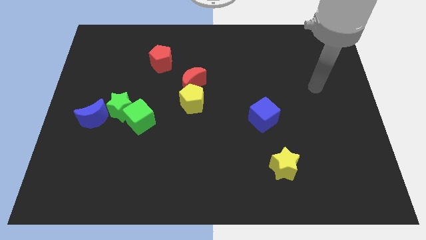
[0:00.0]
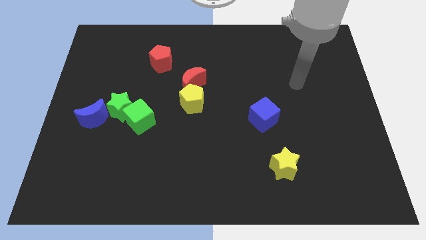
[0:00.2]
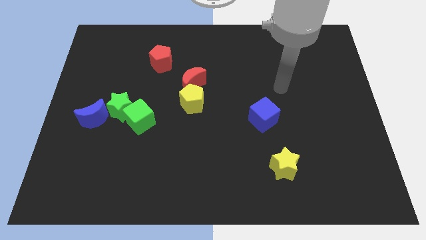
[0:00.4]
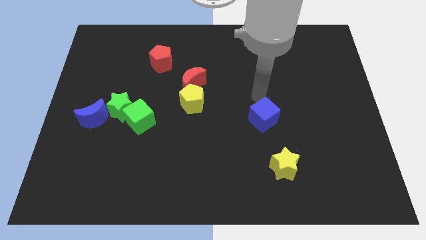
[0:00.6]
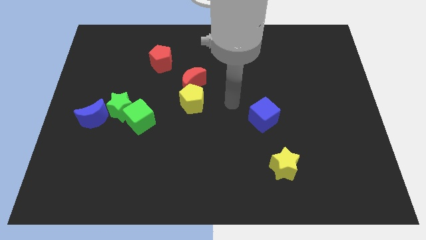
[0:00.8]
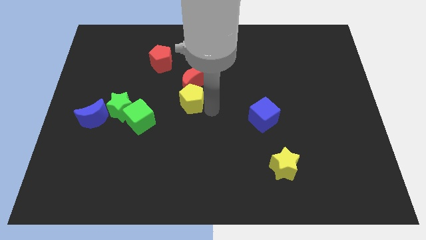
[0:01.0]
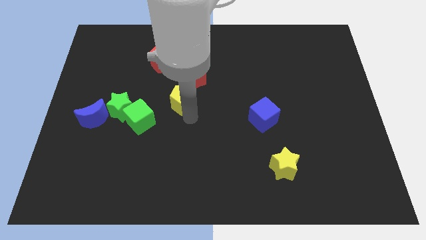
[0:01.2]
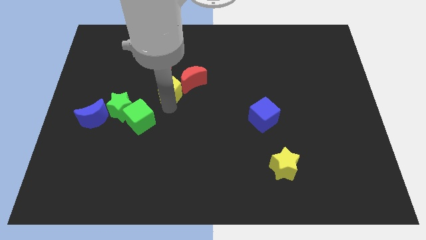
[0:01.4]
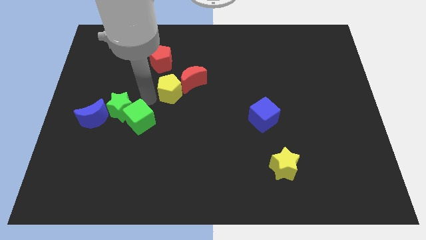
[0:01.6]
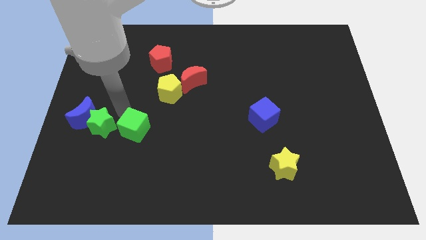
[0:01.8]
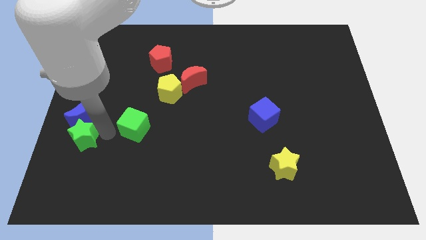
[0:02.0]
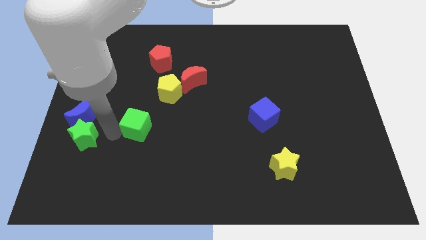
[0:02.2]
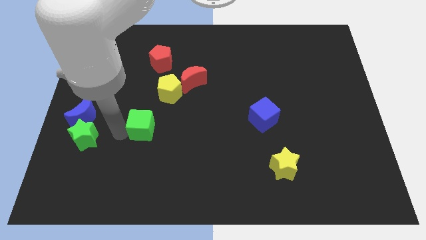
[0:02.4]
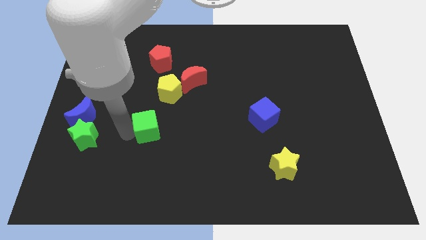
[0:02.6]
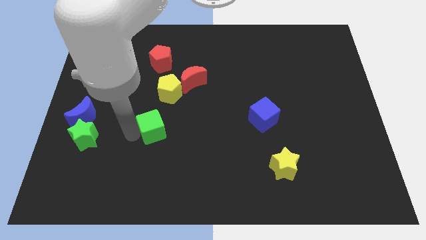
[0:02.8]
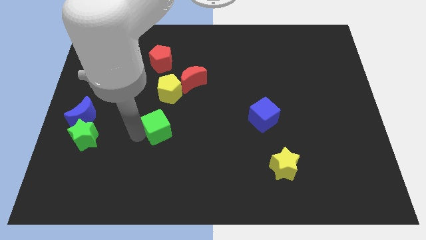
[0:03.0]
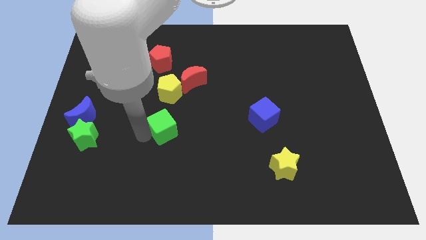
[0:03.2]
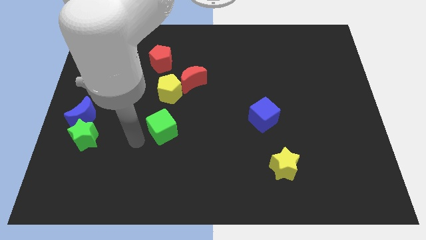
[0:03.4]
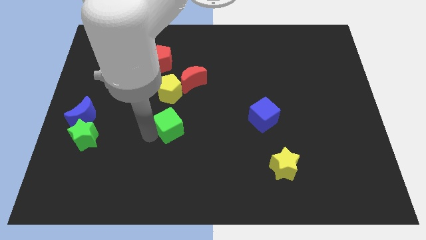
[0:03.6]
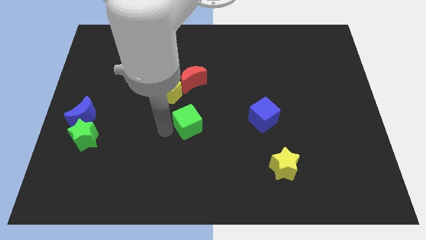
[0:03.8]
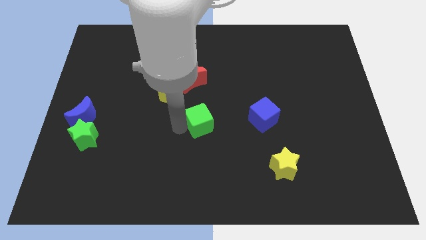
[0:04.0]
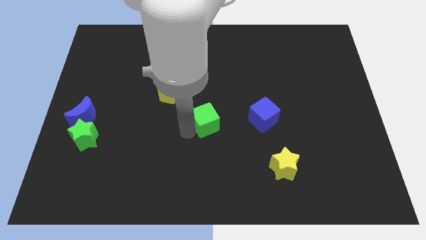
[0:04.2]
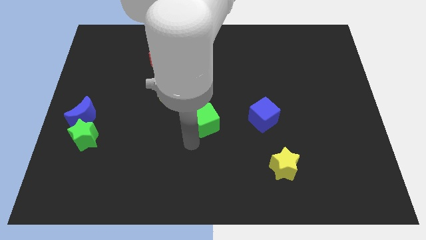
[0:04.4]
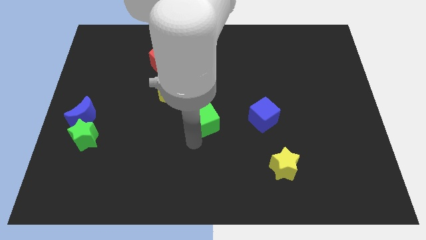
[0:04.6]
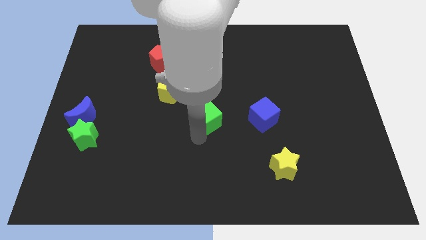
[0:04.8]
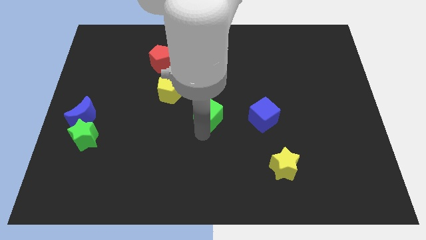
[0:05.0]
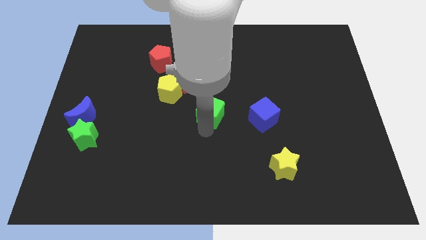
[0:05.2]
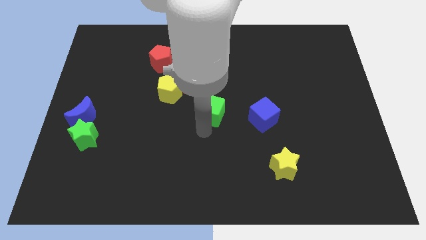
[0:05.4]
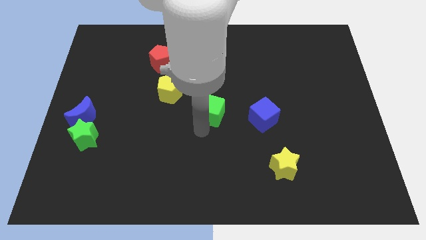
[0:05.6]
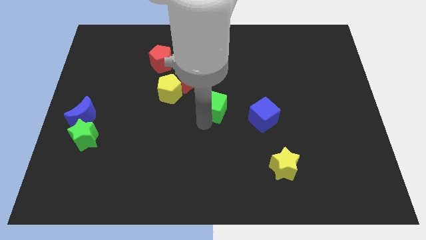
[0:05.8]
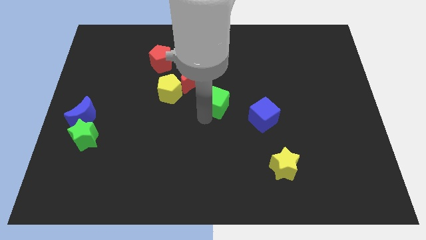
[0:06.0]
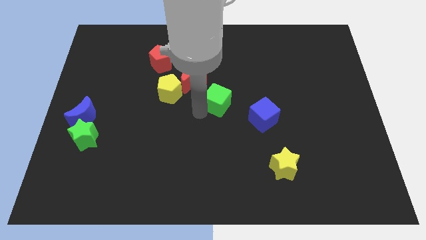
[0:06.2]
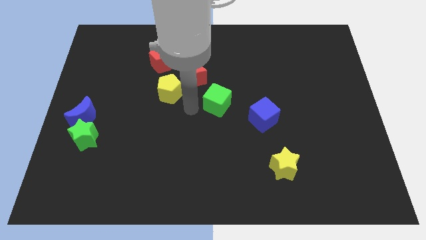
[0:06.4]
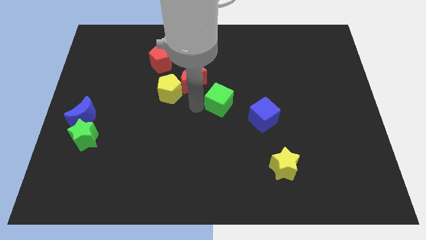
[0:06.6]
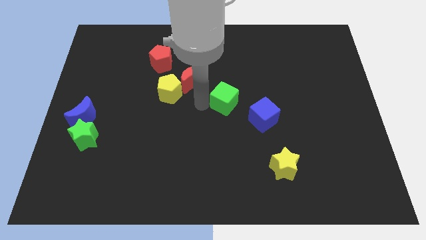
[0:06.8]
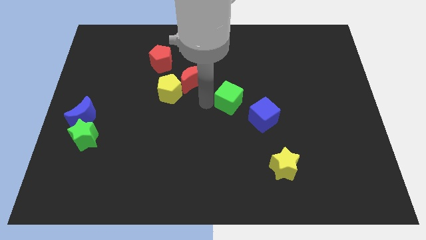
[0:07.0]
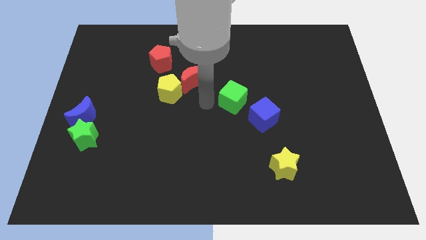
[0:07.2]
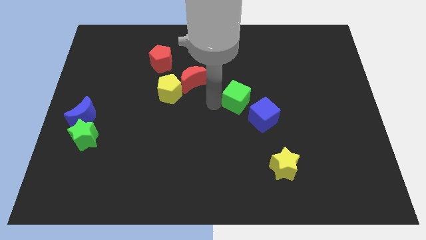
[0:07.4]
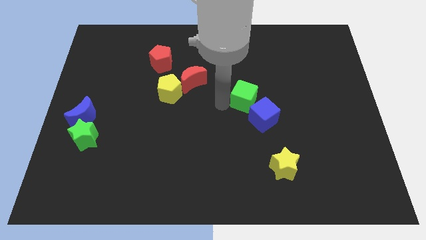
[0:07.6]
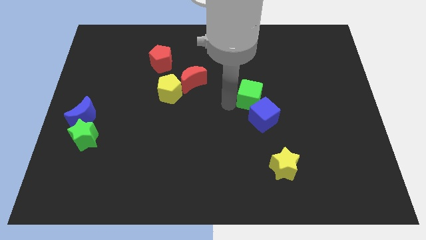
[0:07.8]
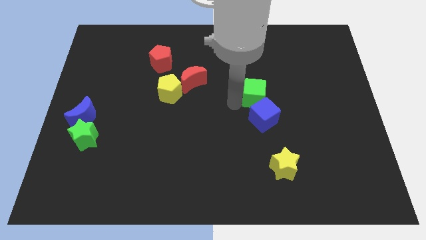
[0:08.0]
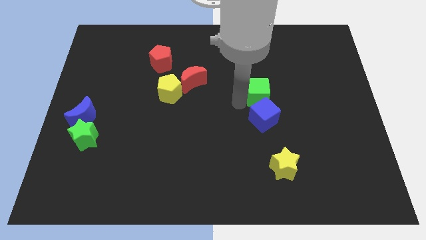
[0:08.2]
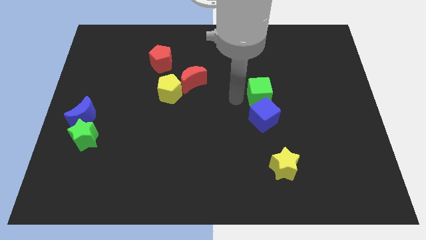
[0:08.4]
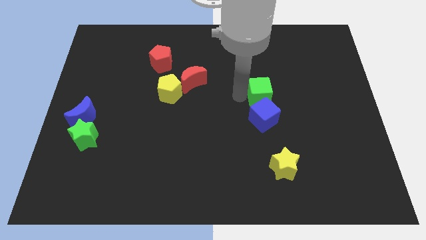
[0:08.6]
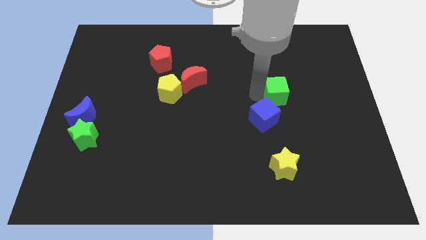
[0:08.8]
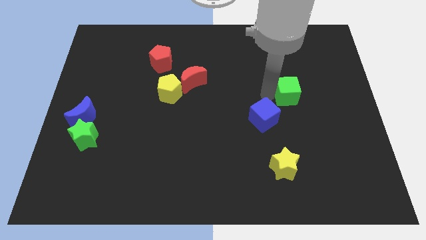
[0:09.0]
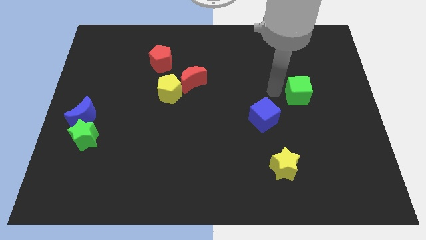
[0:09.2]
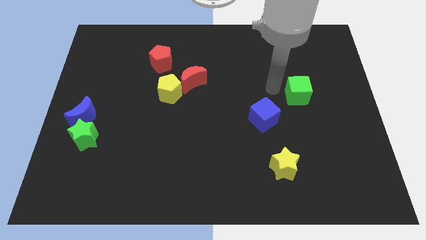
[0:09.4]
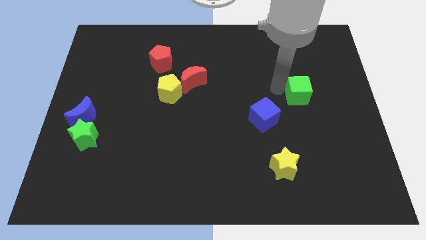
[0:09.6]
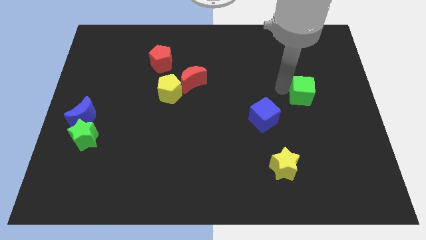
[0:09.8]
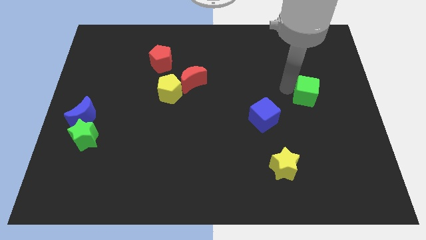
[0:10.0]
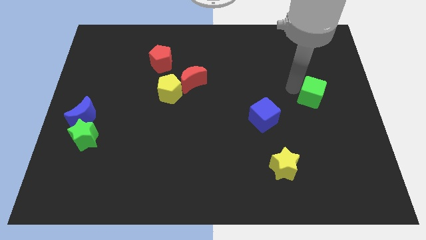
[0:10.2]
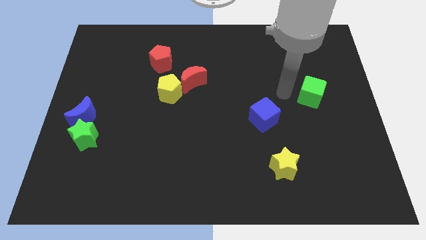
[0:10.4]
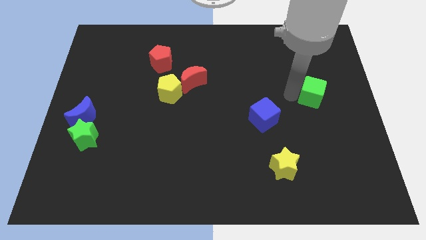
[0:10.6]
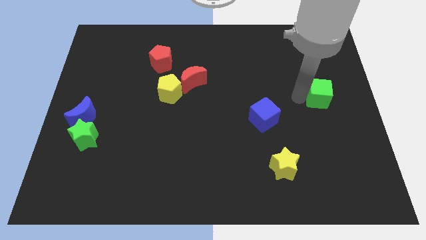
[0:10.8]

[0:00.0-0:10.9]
slide the green cube to the right side

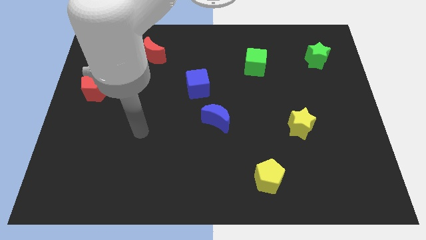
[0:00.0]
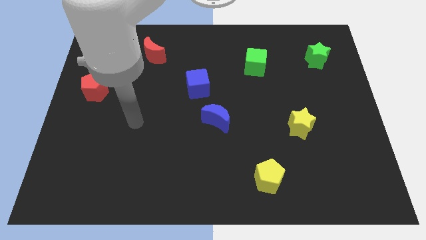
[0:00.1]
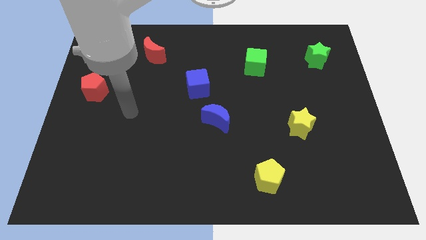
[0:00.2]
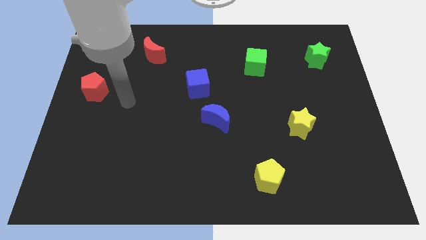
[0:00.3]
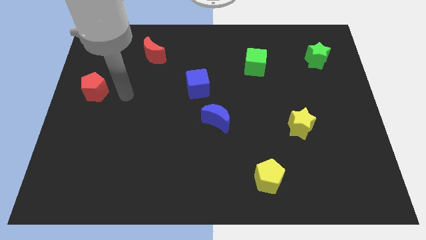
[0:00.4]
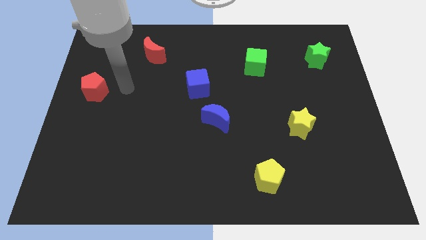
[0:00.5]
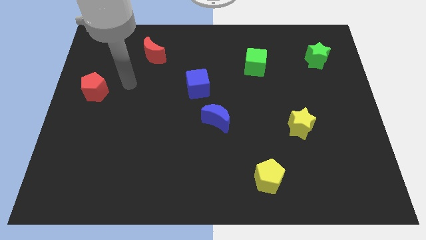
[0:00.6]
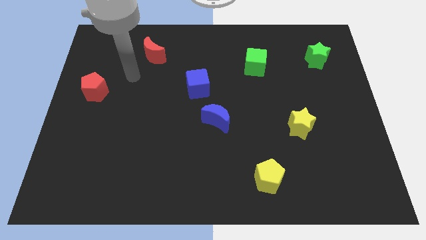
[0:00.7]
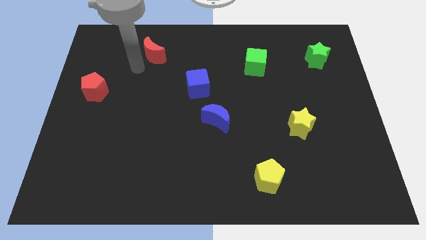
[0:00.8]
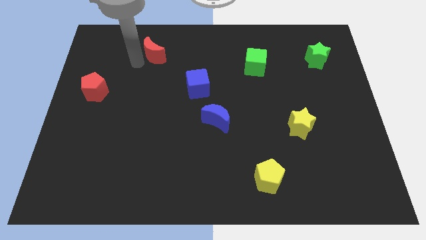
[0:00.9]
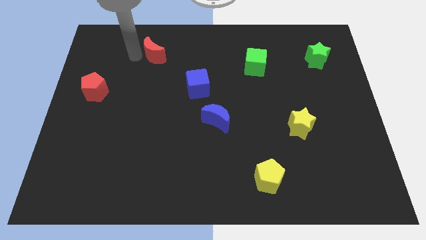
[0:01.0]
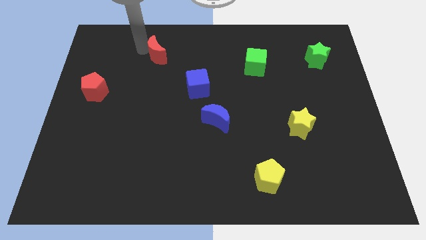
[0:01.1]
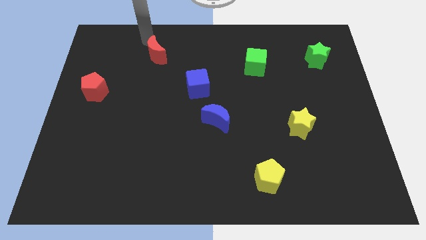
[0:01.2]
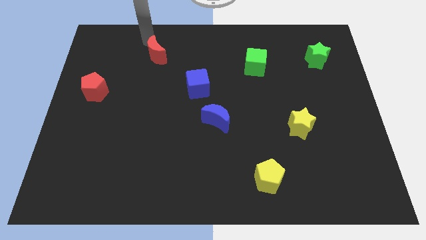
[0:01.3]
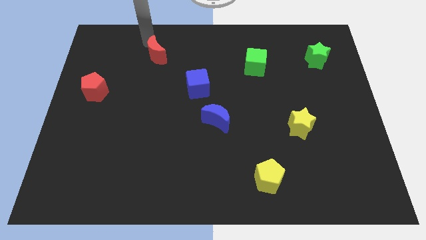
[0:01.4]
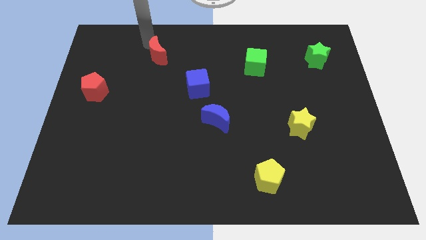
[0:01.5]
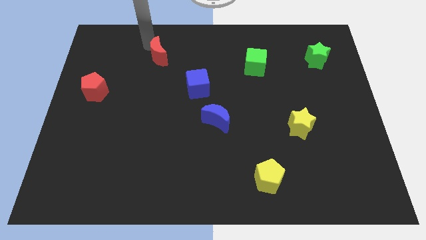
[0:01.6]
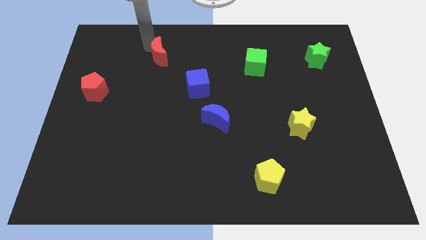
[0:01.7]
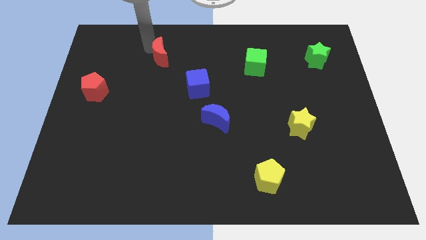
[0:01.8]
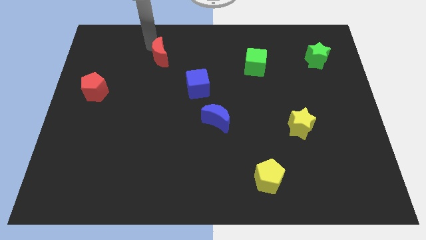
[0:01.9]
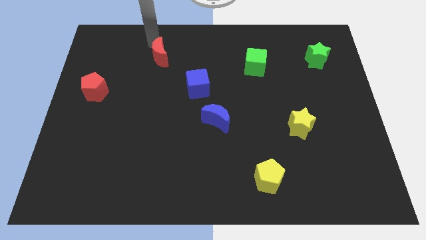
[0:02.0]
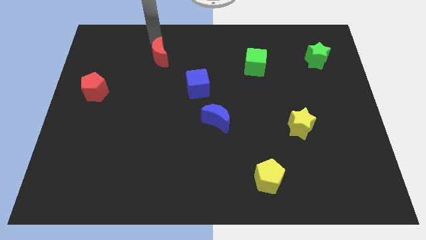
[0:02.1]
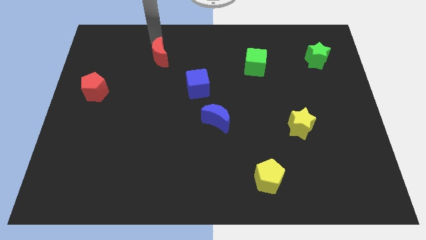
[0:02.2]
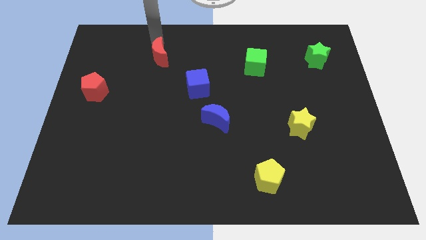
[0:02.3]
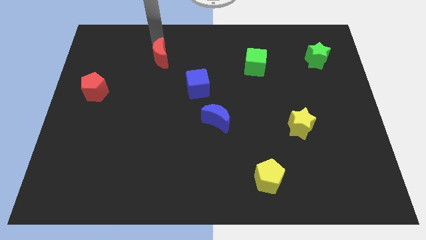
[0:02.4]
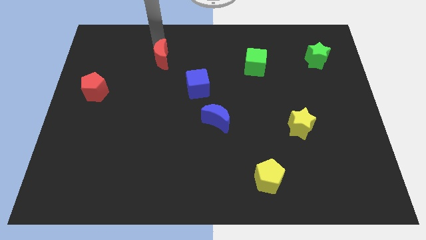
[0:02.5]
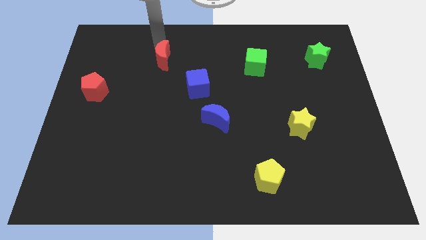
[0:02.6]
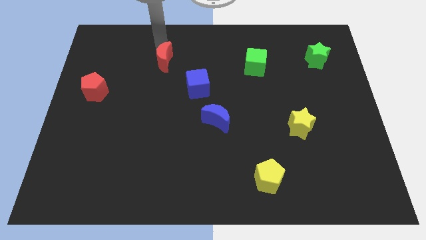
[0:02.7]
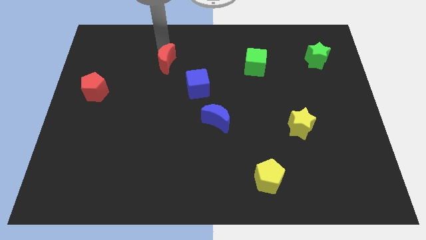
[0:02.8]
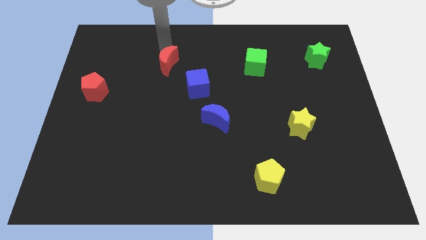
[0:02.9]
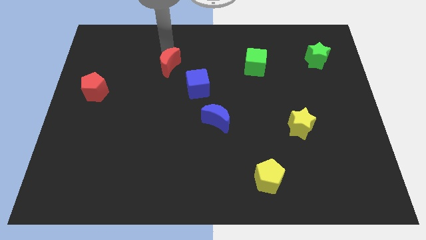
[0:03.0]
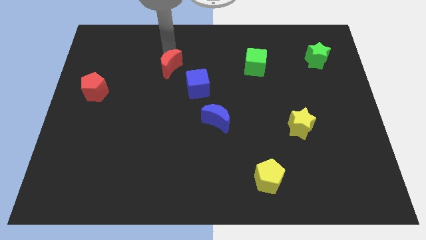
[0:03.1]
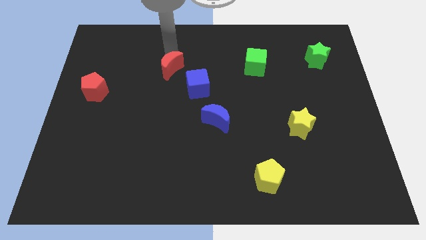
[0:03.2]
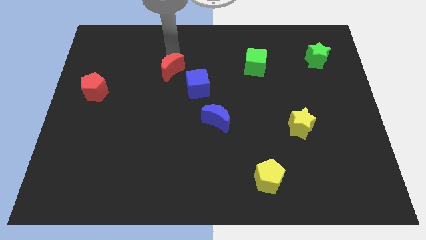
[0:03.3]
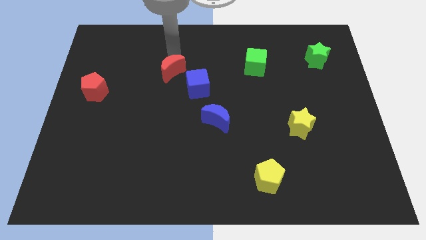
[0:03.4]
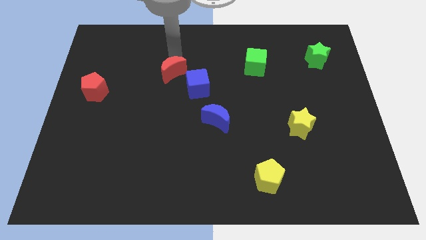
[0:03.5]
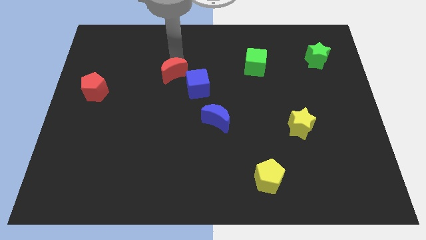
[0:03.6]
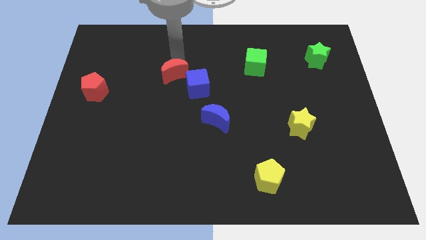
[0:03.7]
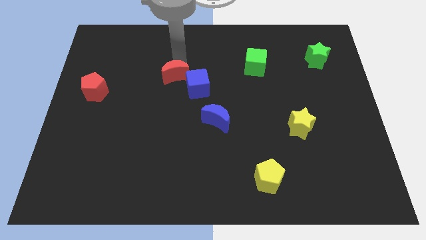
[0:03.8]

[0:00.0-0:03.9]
put the red moon to the middle
